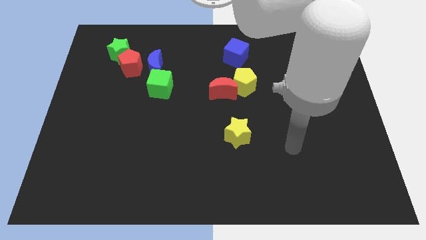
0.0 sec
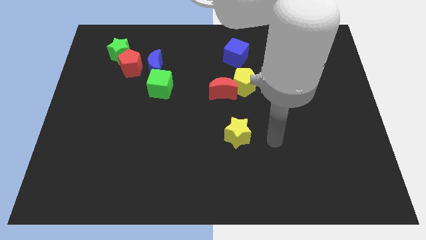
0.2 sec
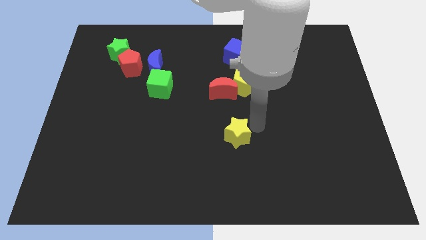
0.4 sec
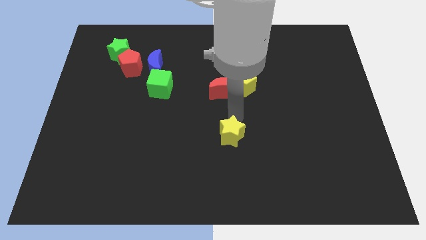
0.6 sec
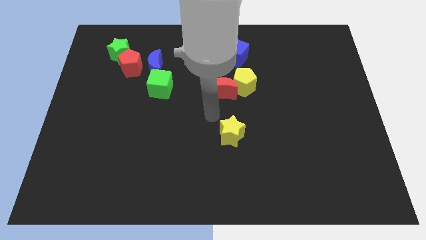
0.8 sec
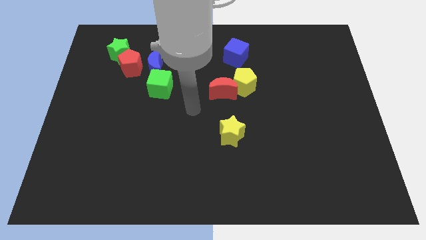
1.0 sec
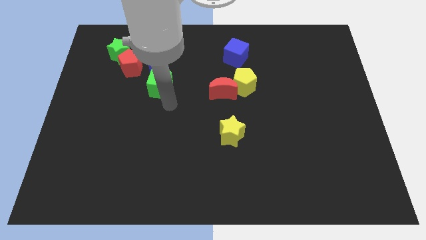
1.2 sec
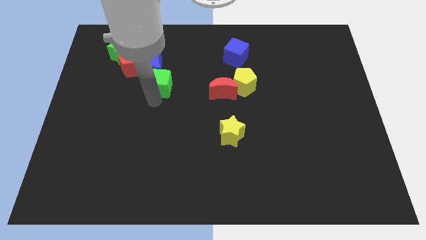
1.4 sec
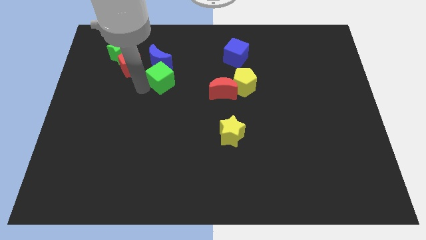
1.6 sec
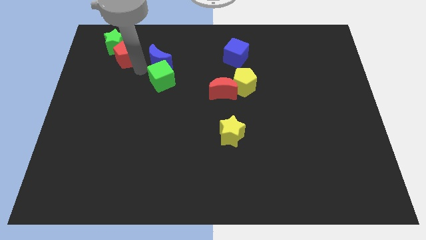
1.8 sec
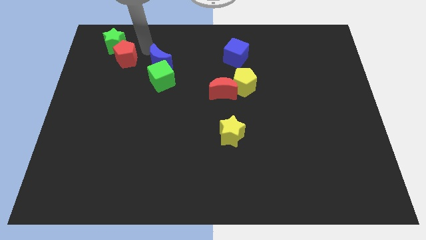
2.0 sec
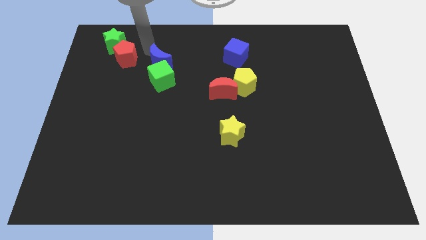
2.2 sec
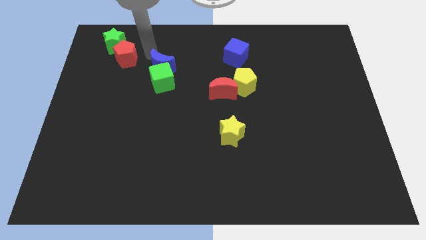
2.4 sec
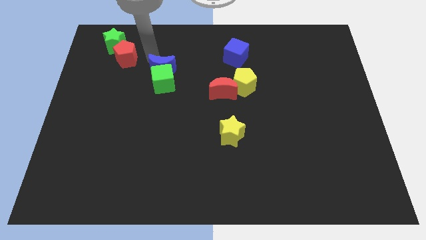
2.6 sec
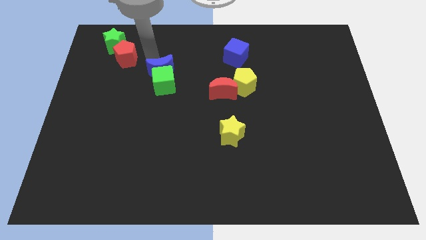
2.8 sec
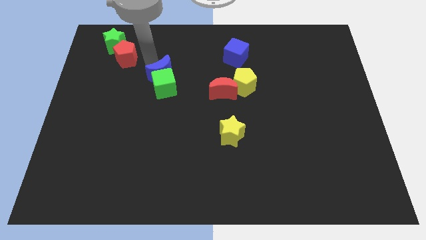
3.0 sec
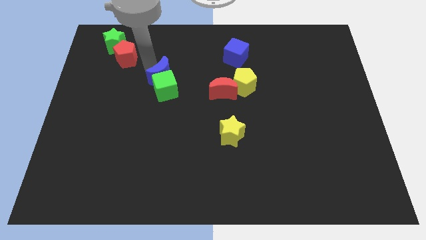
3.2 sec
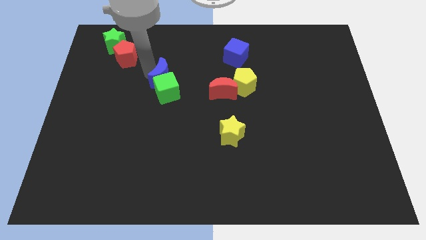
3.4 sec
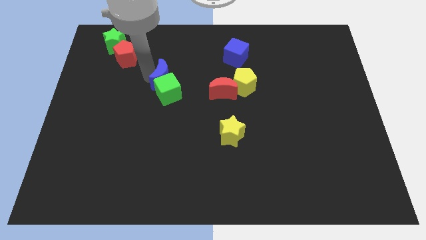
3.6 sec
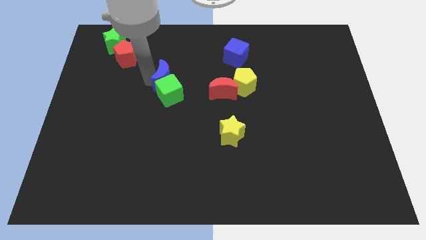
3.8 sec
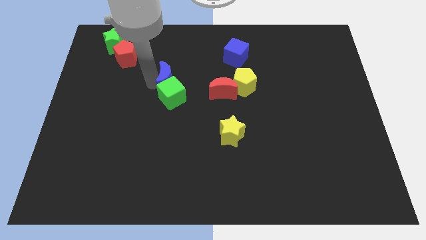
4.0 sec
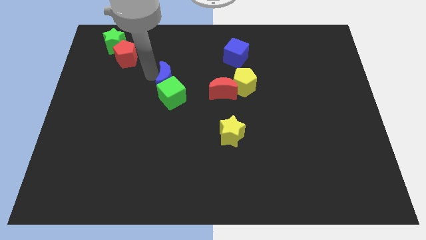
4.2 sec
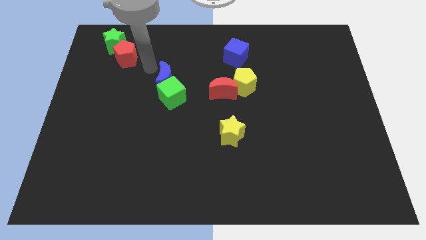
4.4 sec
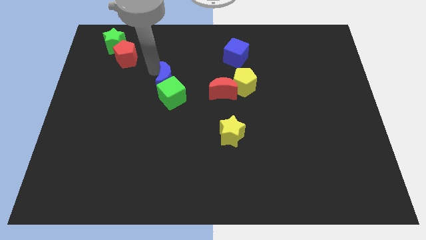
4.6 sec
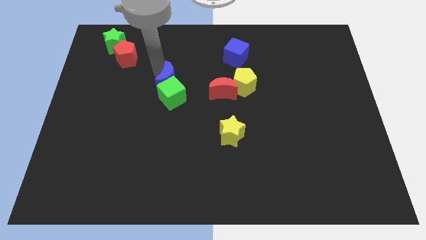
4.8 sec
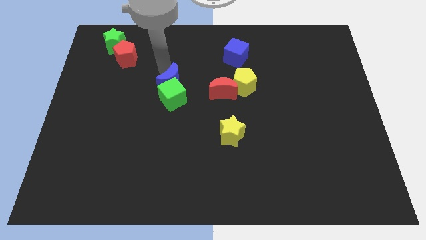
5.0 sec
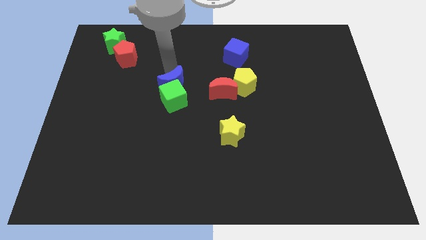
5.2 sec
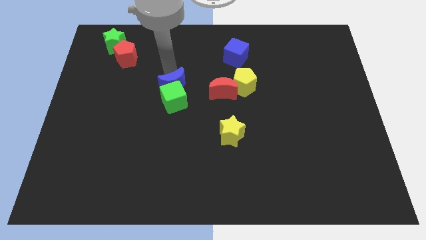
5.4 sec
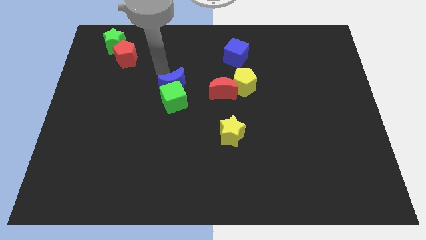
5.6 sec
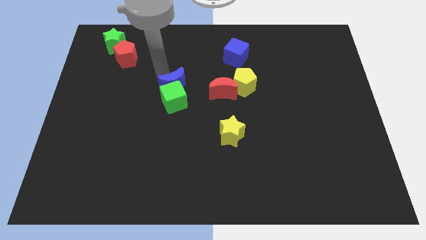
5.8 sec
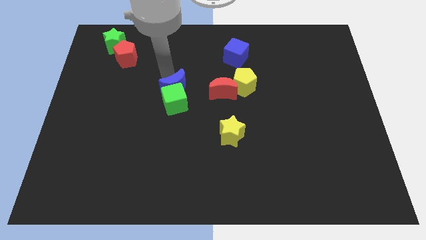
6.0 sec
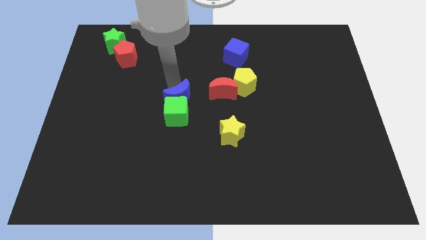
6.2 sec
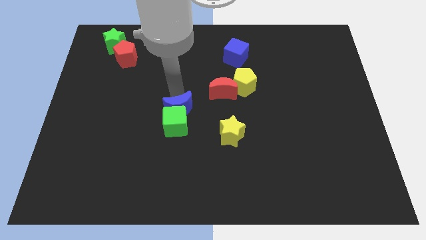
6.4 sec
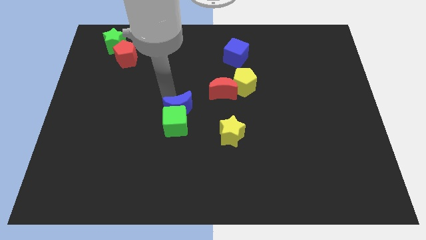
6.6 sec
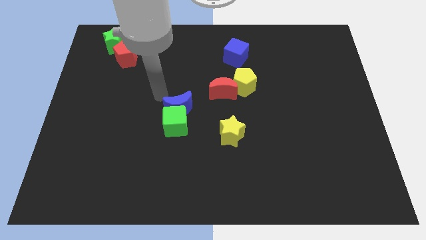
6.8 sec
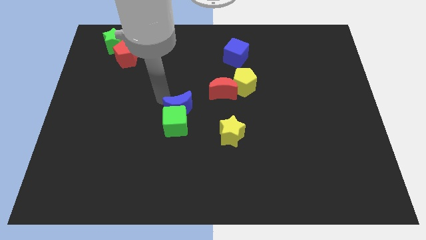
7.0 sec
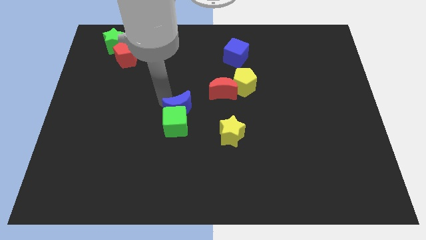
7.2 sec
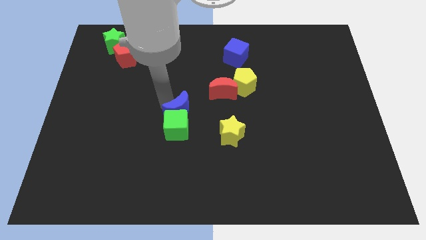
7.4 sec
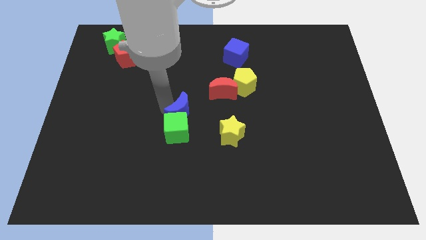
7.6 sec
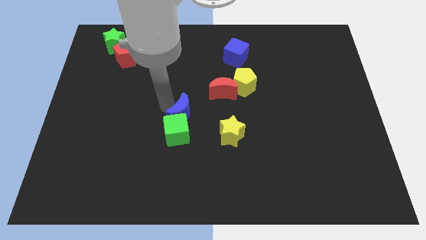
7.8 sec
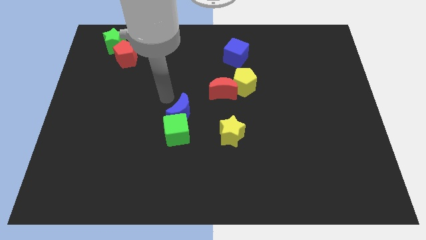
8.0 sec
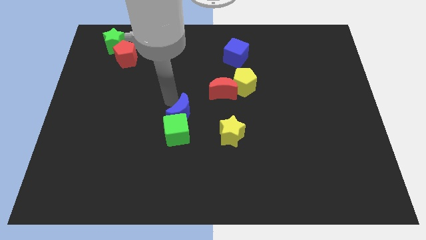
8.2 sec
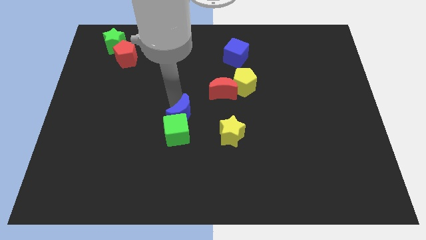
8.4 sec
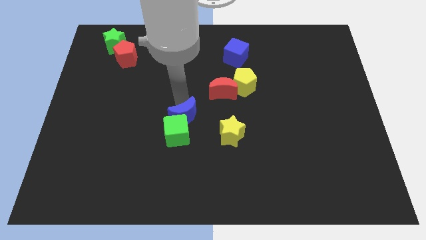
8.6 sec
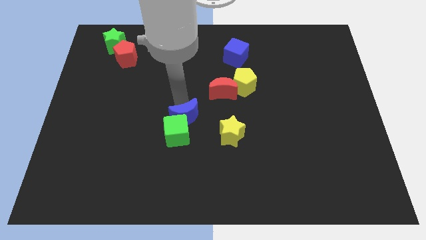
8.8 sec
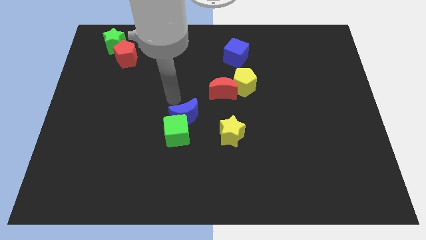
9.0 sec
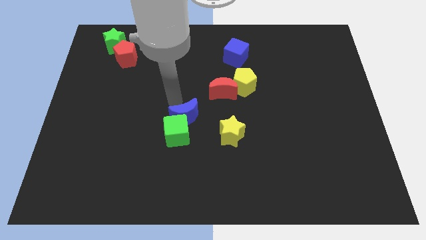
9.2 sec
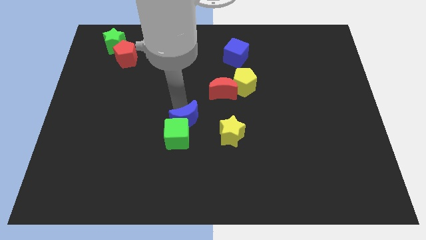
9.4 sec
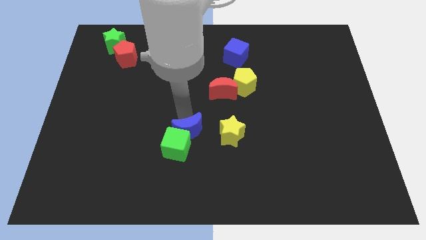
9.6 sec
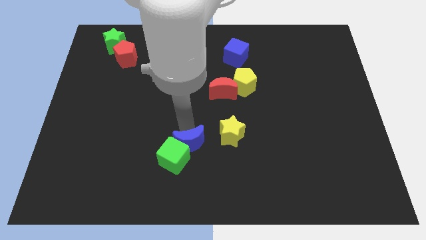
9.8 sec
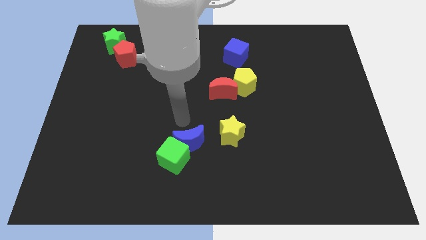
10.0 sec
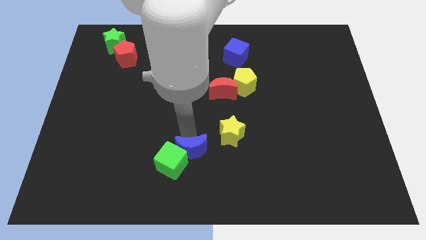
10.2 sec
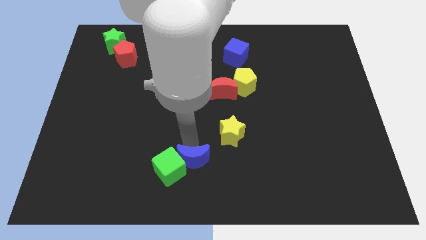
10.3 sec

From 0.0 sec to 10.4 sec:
put the blue moon to the bottom side
